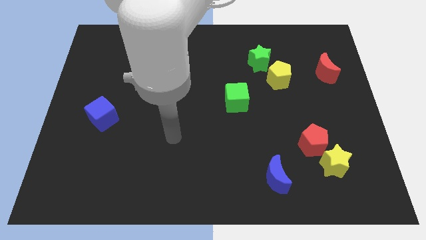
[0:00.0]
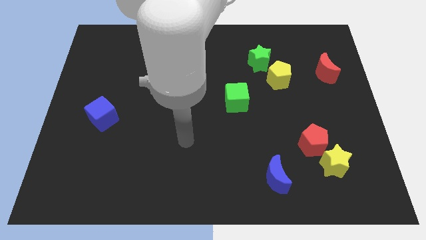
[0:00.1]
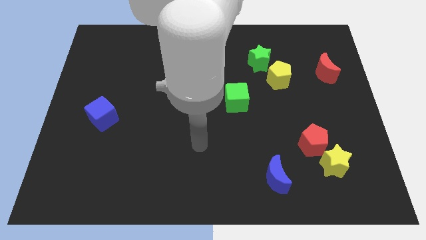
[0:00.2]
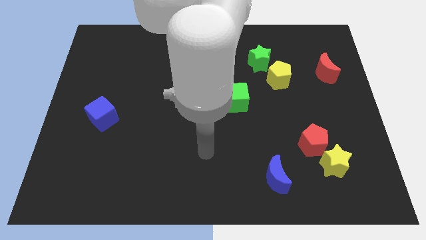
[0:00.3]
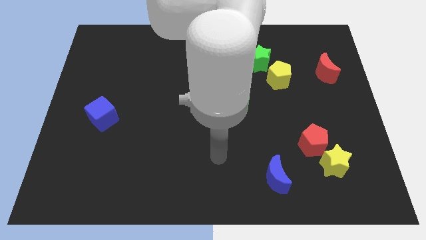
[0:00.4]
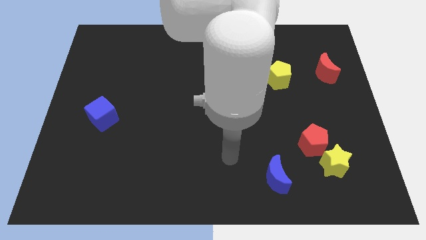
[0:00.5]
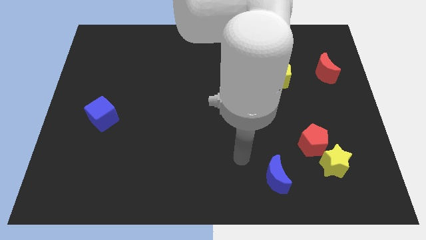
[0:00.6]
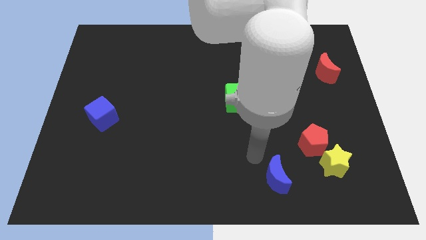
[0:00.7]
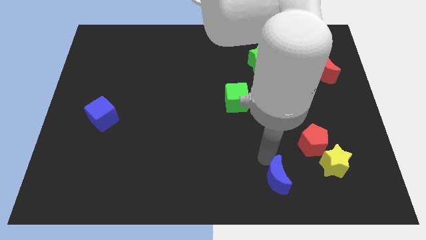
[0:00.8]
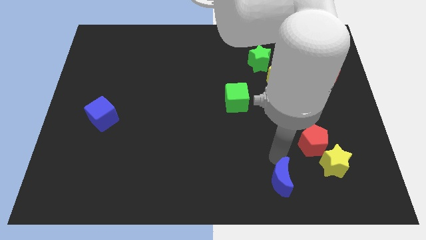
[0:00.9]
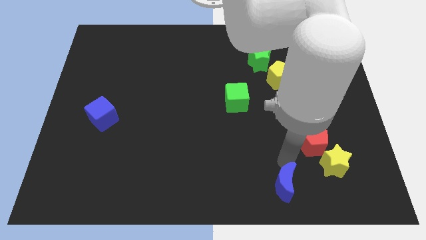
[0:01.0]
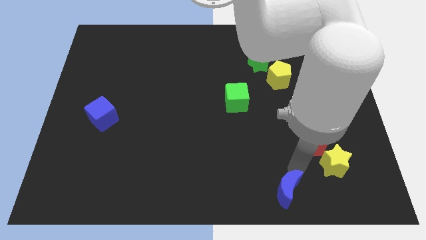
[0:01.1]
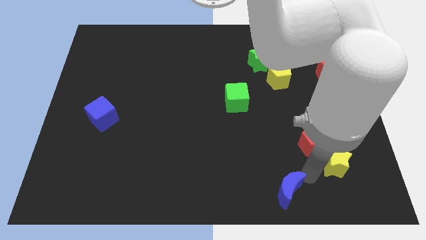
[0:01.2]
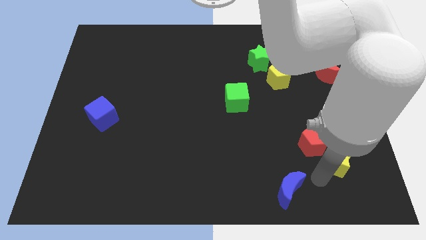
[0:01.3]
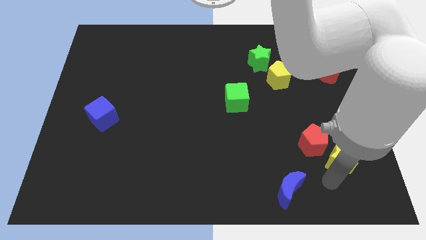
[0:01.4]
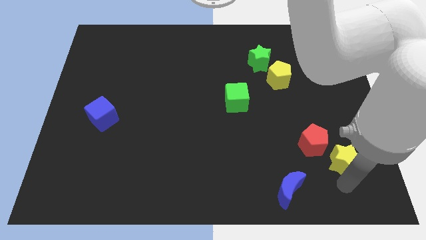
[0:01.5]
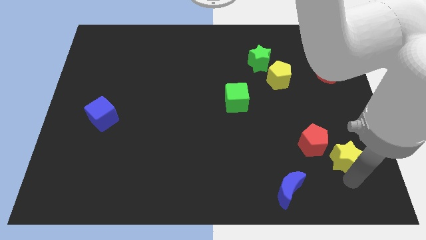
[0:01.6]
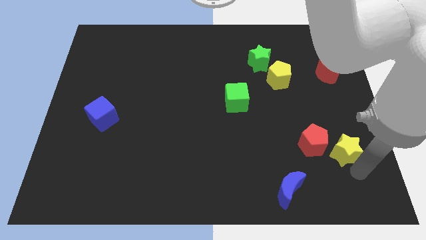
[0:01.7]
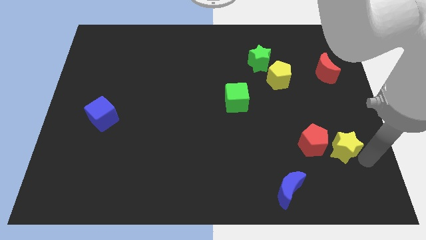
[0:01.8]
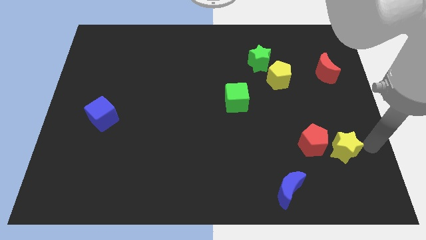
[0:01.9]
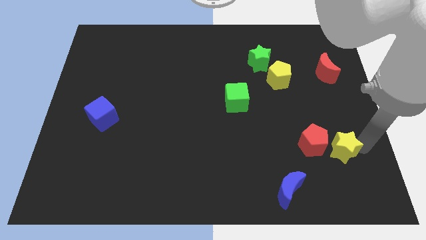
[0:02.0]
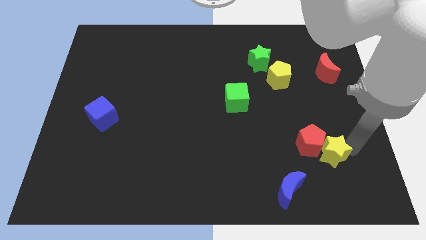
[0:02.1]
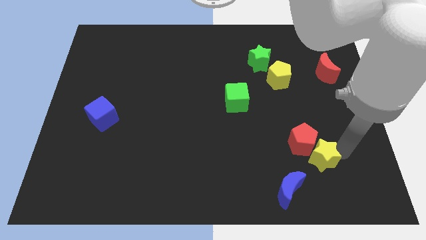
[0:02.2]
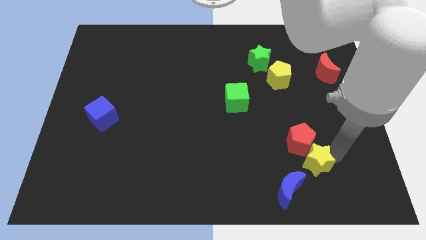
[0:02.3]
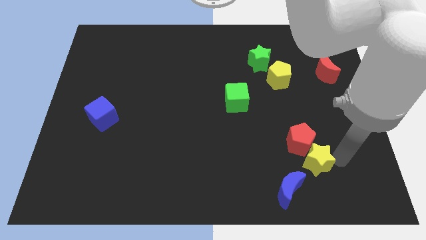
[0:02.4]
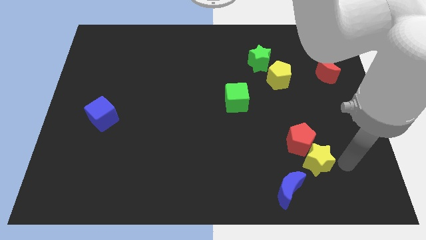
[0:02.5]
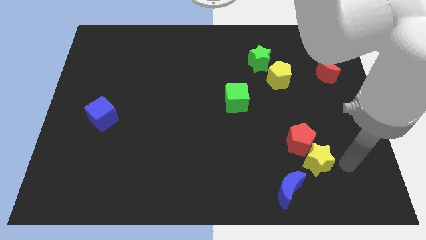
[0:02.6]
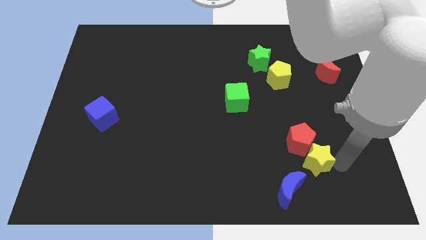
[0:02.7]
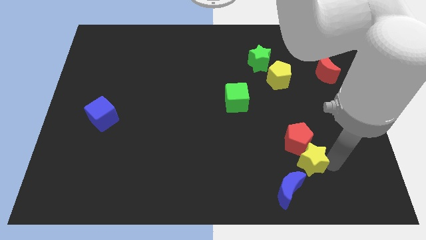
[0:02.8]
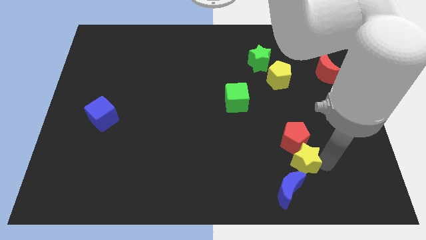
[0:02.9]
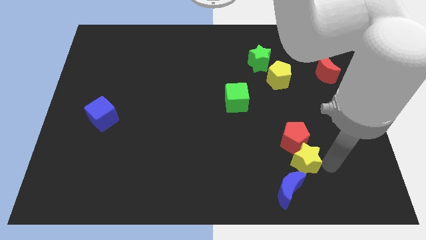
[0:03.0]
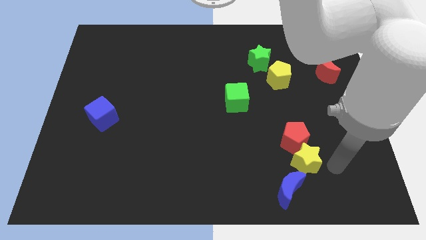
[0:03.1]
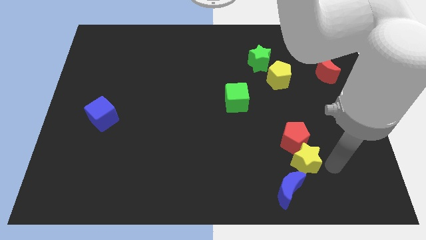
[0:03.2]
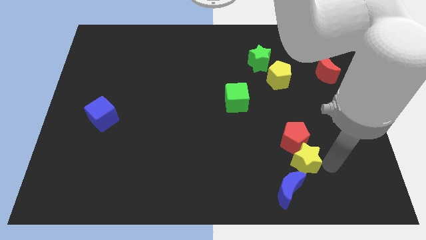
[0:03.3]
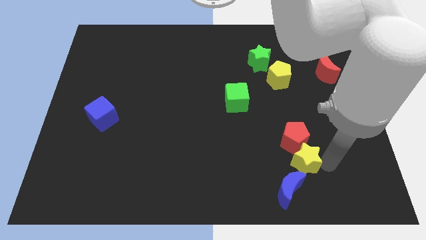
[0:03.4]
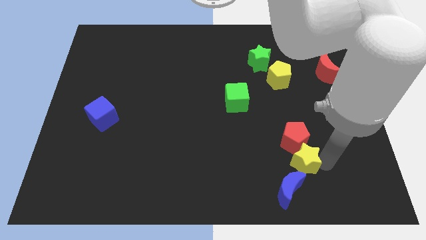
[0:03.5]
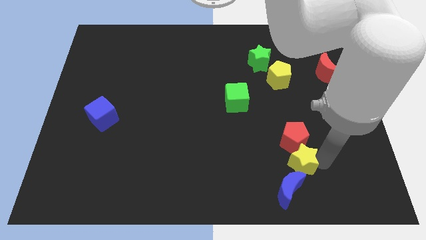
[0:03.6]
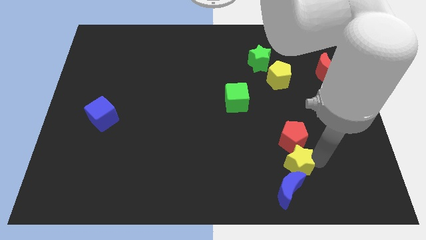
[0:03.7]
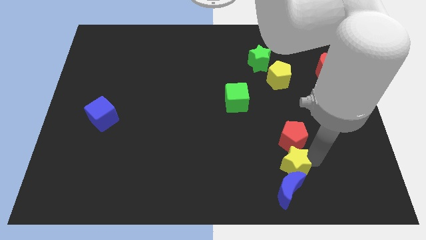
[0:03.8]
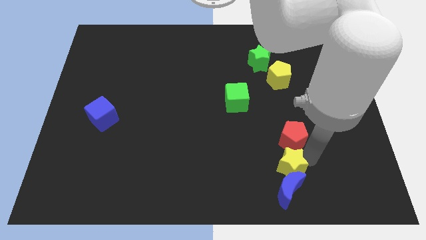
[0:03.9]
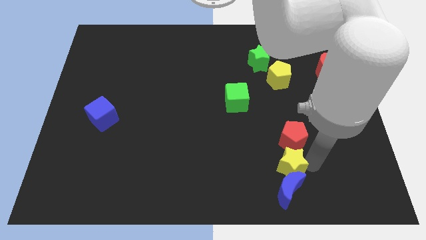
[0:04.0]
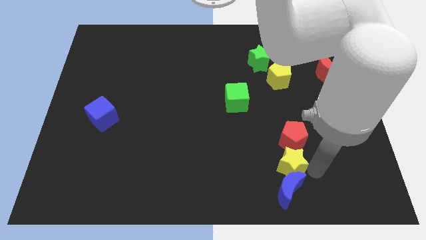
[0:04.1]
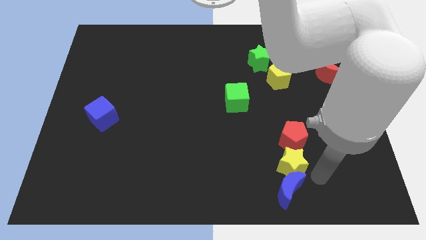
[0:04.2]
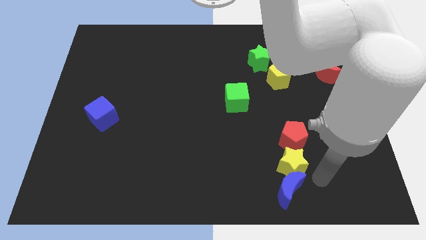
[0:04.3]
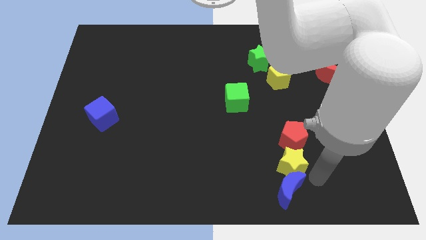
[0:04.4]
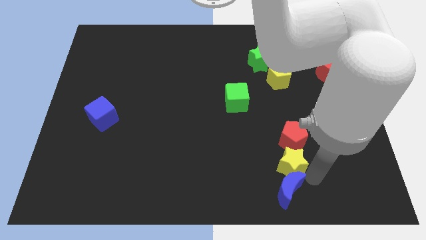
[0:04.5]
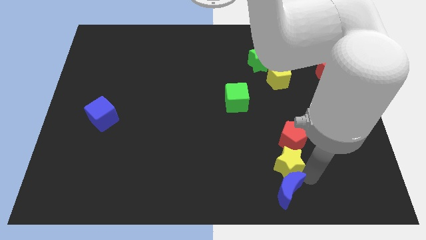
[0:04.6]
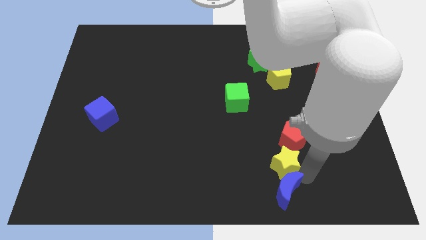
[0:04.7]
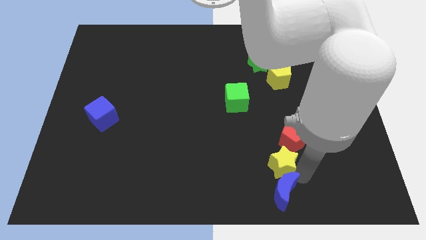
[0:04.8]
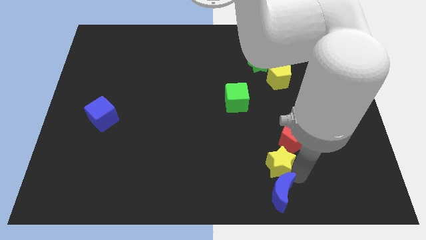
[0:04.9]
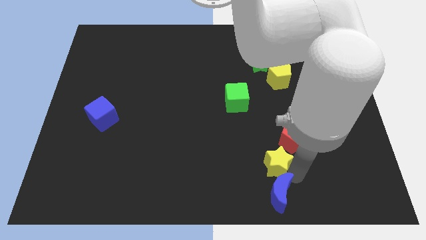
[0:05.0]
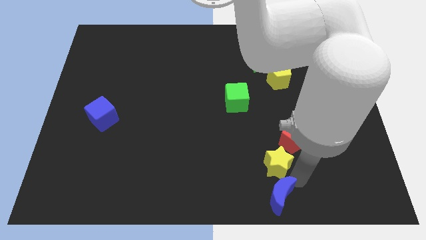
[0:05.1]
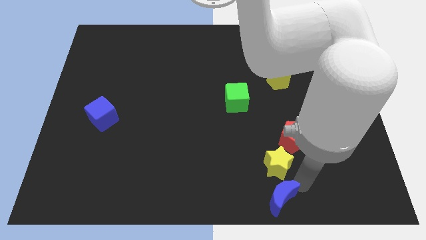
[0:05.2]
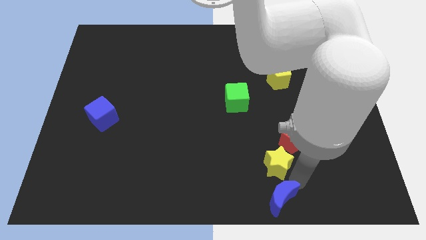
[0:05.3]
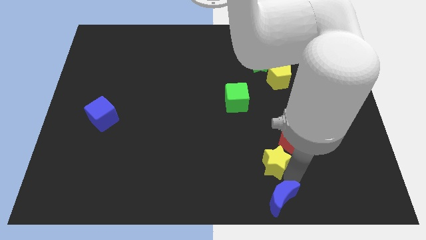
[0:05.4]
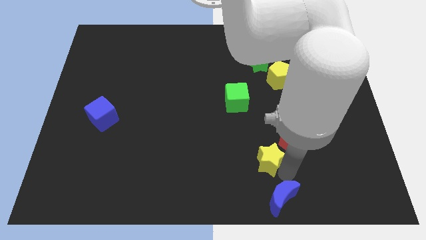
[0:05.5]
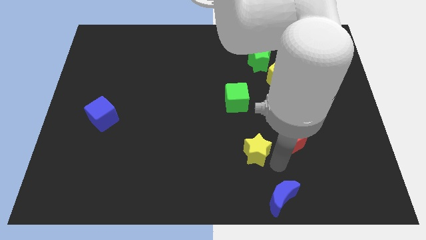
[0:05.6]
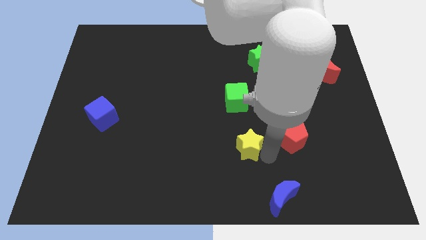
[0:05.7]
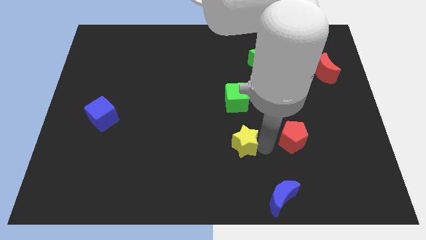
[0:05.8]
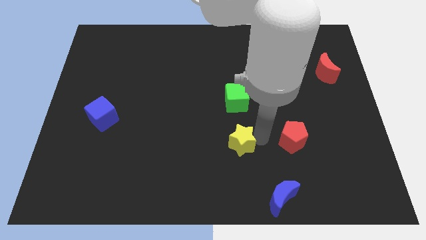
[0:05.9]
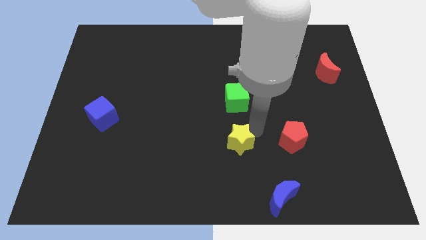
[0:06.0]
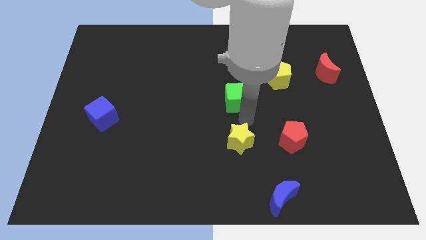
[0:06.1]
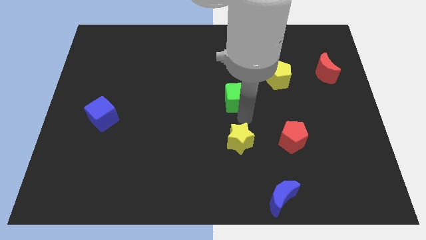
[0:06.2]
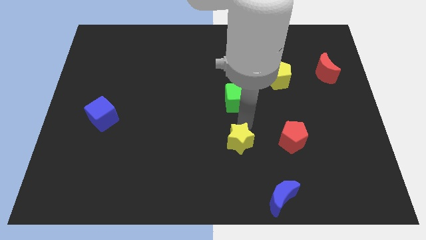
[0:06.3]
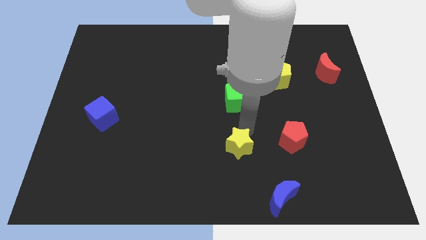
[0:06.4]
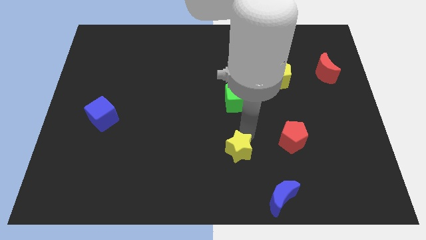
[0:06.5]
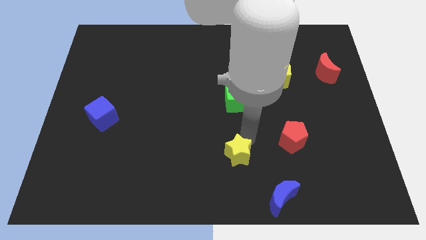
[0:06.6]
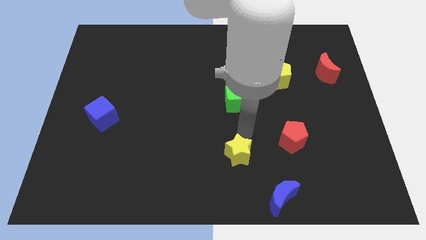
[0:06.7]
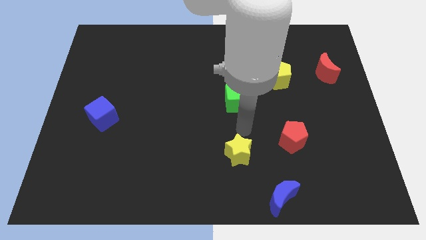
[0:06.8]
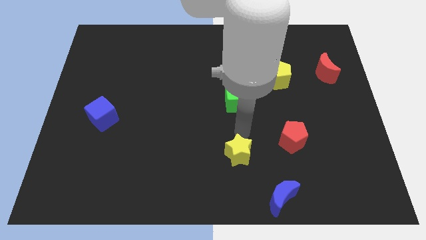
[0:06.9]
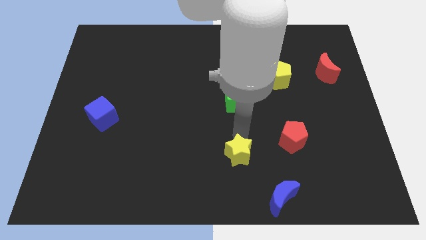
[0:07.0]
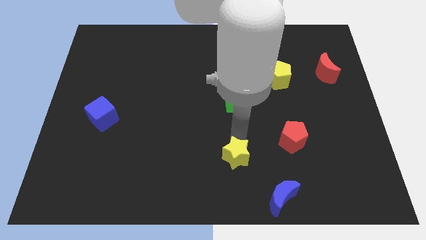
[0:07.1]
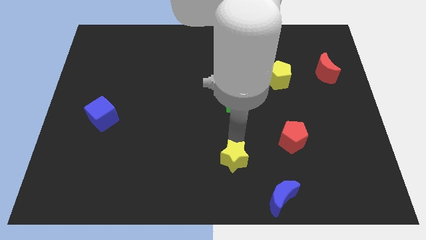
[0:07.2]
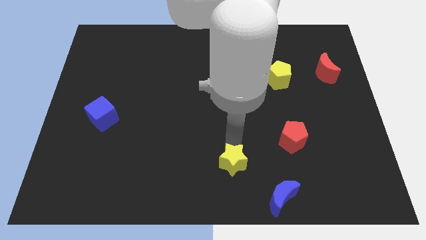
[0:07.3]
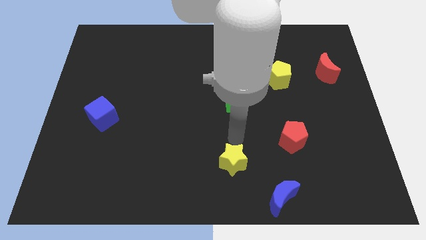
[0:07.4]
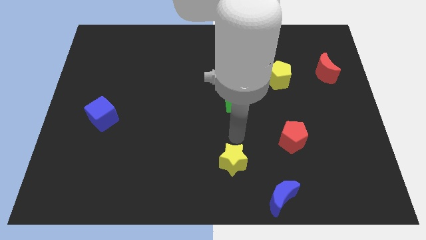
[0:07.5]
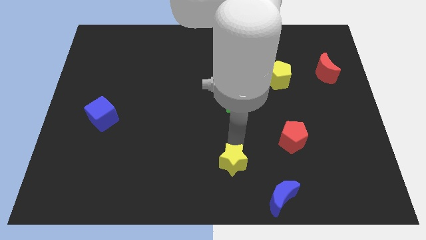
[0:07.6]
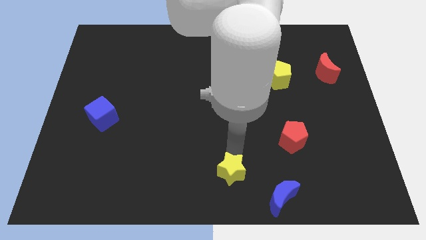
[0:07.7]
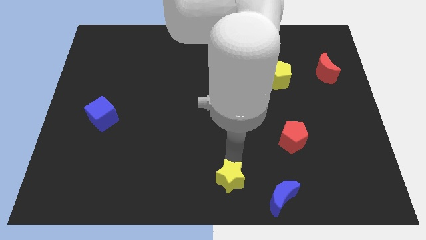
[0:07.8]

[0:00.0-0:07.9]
put the yellow star just left of the blue moon
